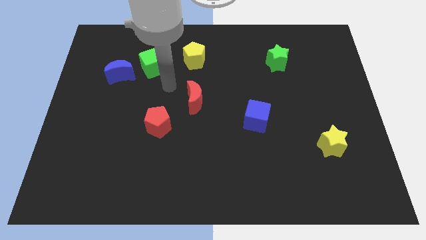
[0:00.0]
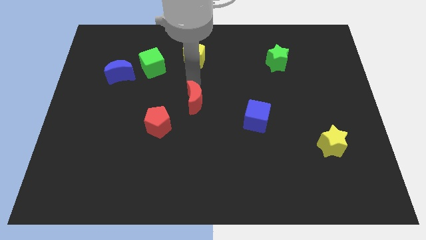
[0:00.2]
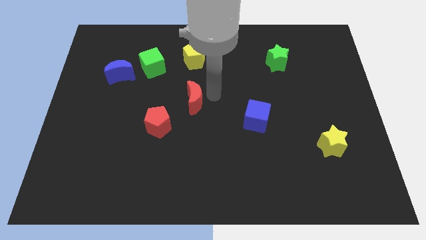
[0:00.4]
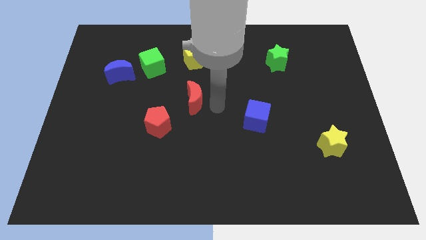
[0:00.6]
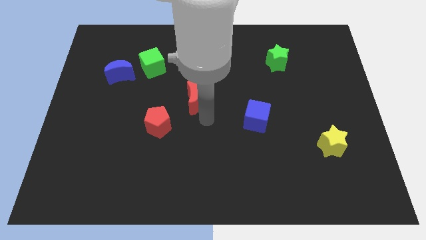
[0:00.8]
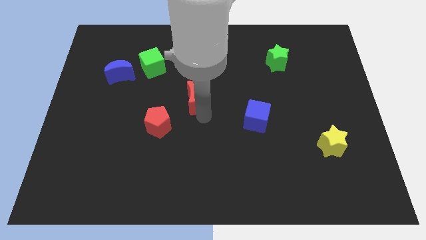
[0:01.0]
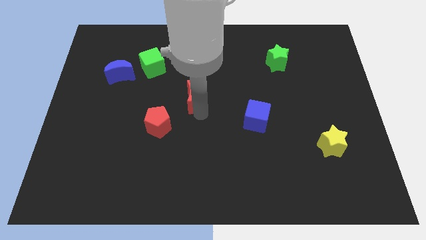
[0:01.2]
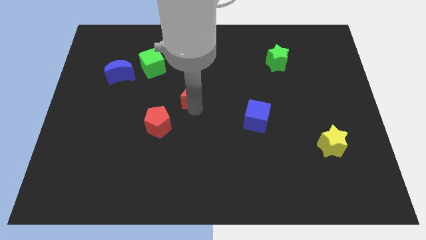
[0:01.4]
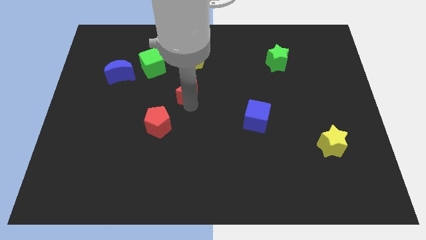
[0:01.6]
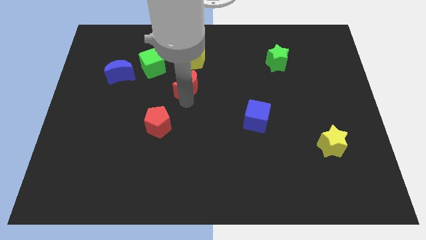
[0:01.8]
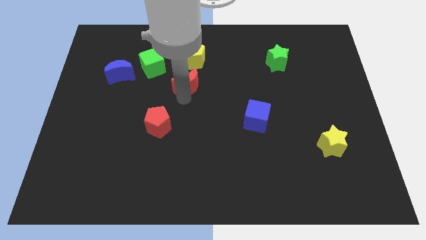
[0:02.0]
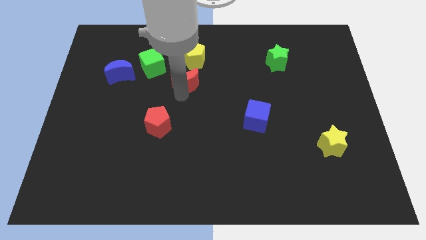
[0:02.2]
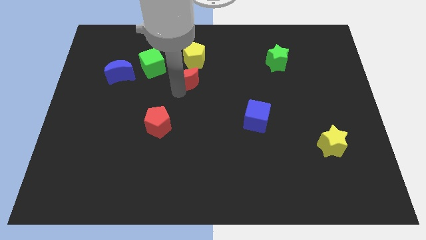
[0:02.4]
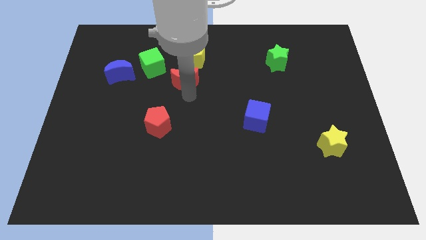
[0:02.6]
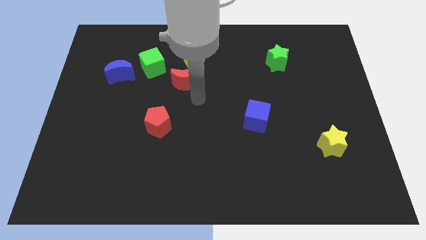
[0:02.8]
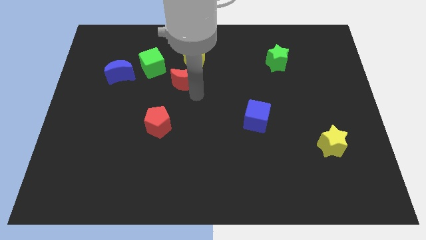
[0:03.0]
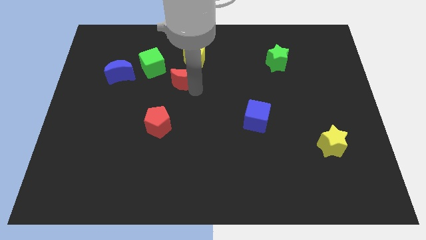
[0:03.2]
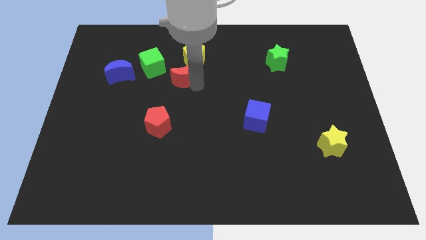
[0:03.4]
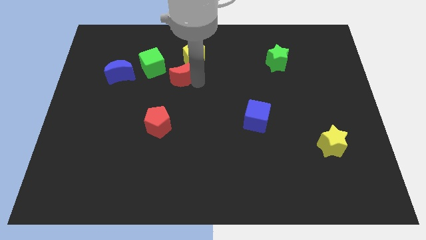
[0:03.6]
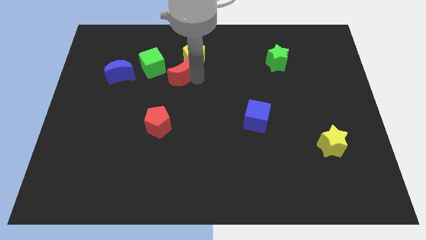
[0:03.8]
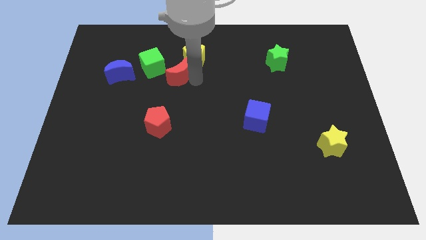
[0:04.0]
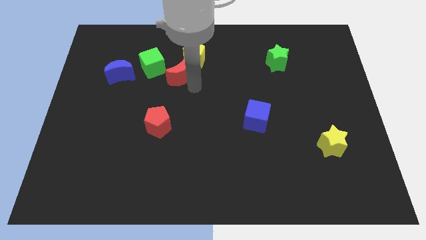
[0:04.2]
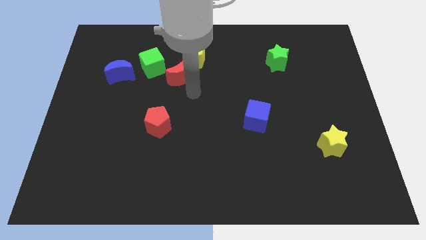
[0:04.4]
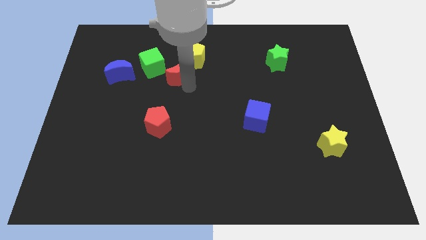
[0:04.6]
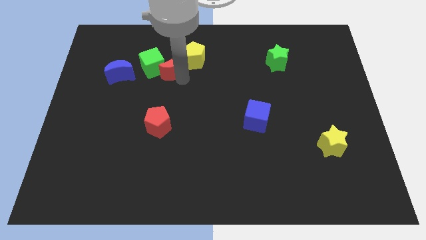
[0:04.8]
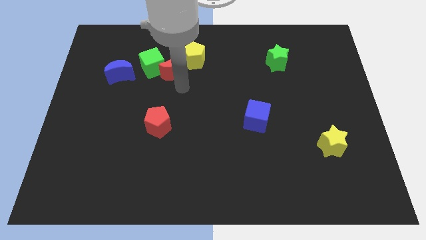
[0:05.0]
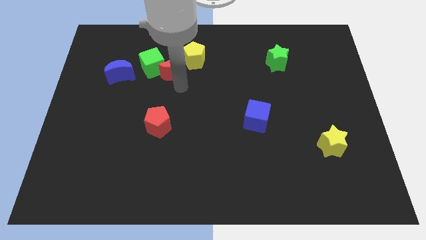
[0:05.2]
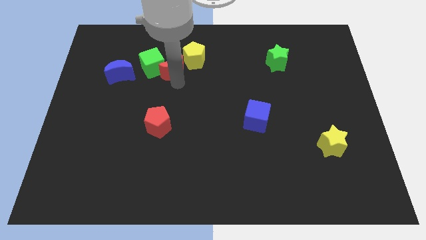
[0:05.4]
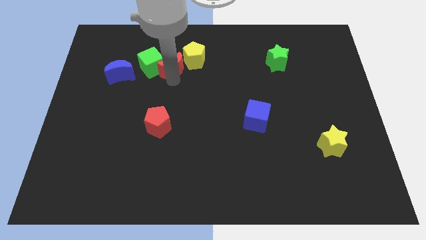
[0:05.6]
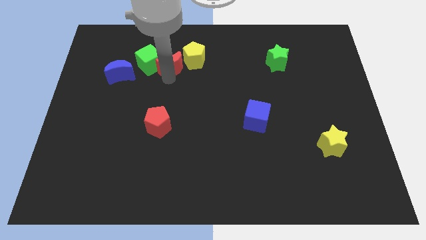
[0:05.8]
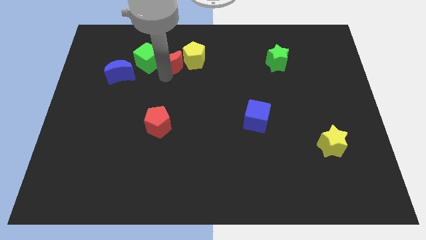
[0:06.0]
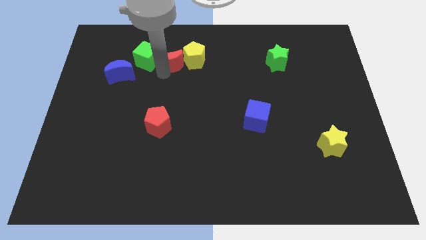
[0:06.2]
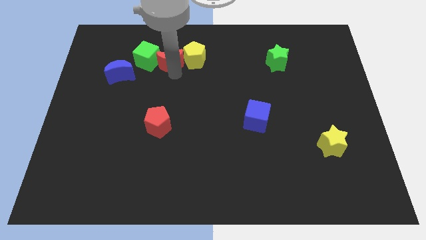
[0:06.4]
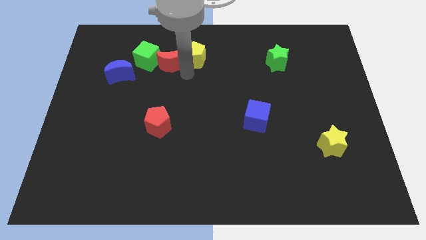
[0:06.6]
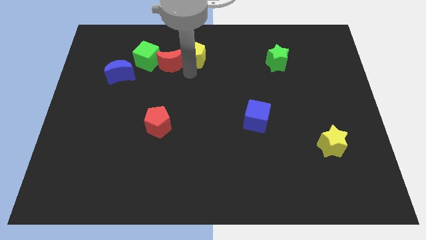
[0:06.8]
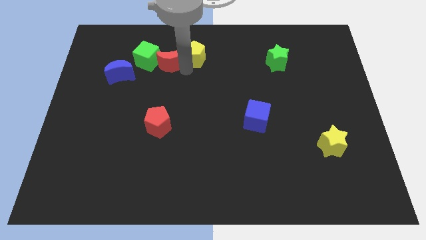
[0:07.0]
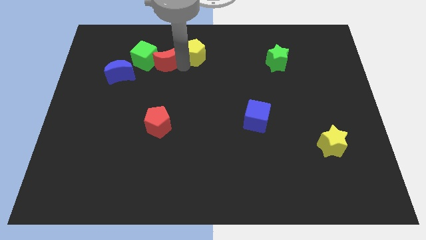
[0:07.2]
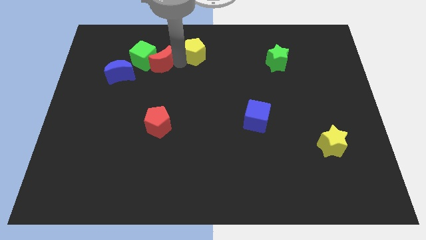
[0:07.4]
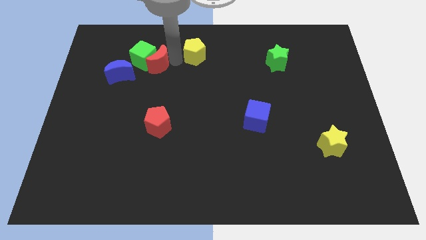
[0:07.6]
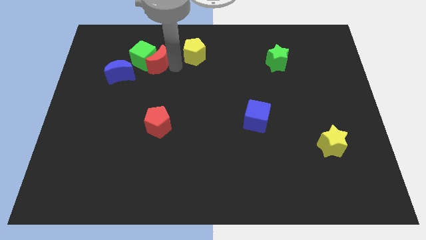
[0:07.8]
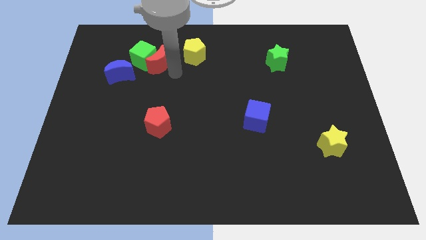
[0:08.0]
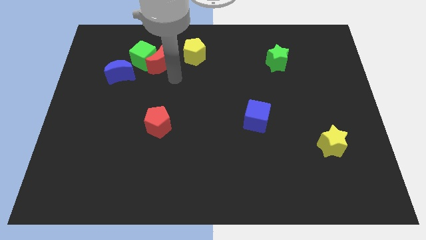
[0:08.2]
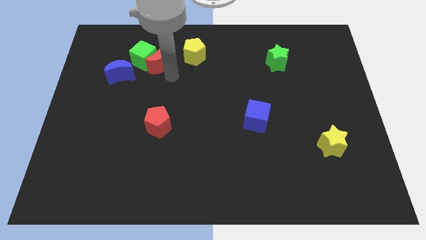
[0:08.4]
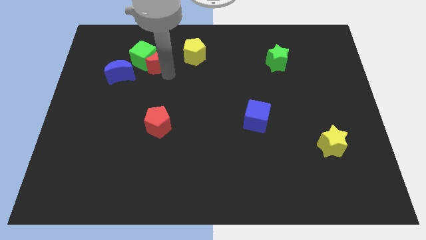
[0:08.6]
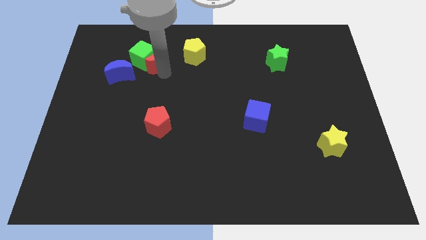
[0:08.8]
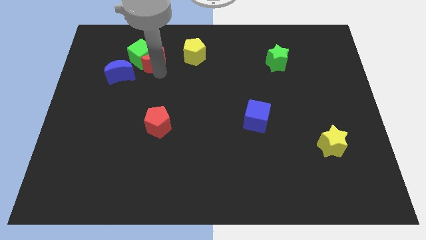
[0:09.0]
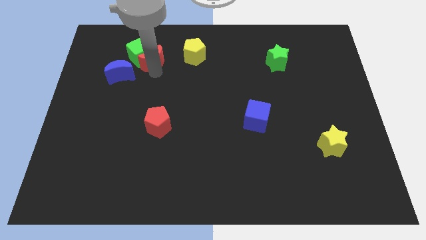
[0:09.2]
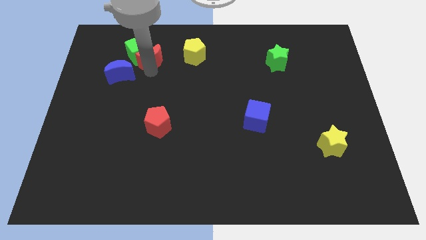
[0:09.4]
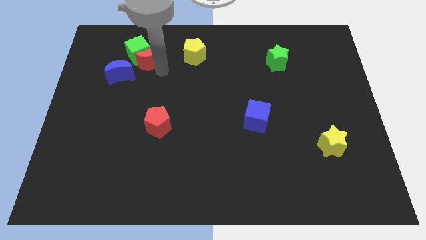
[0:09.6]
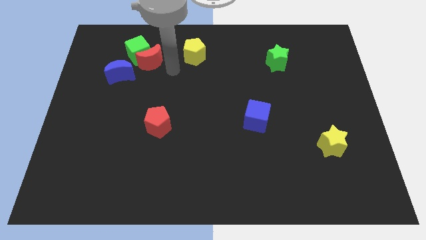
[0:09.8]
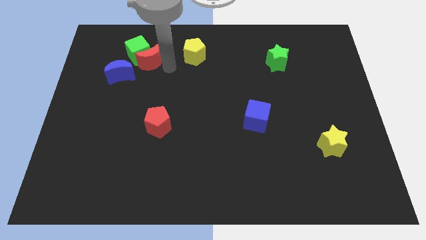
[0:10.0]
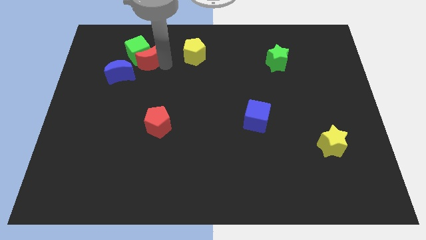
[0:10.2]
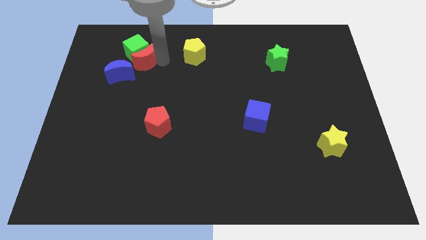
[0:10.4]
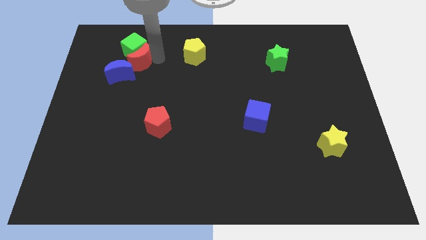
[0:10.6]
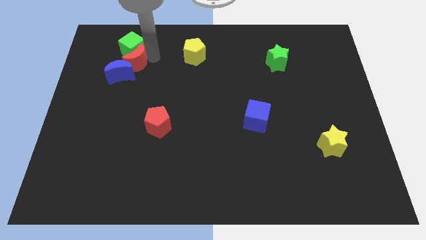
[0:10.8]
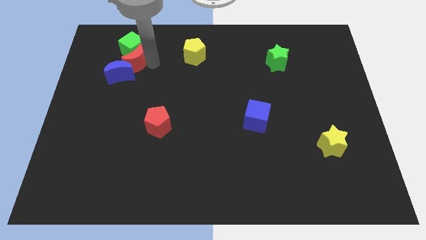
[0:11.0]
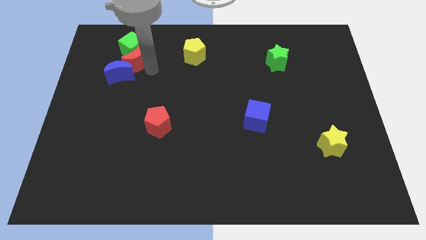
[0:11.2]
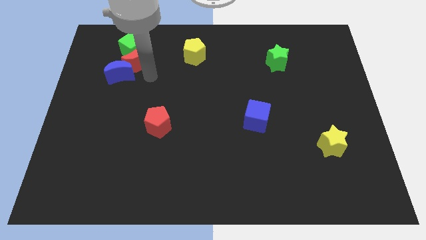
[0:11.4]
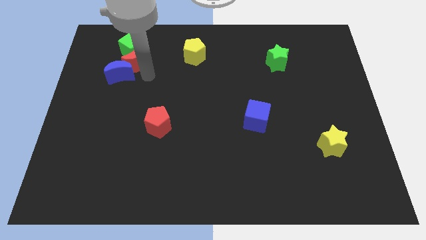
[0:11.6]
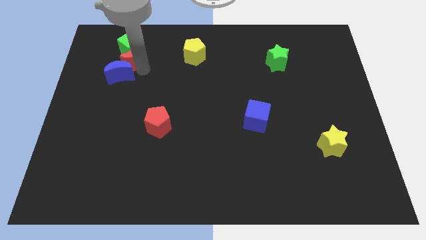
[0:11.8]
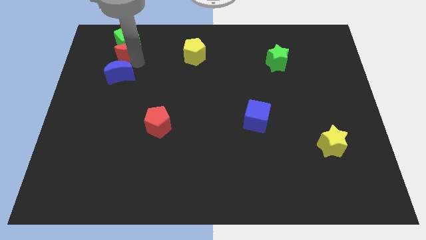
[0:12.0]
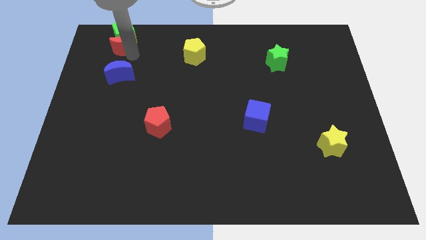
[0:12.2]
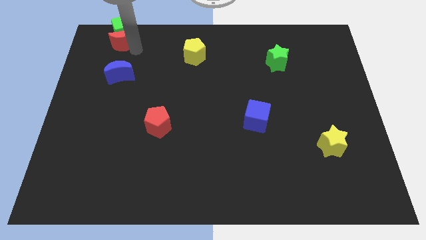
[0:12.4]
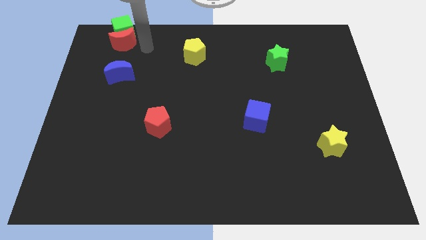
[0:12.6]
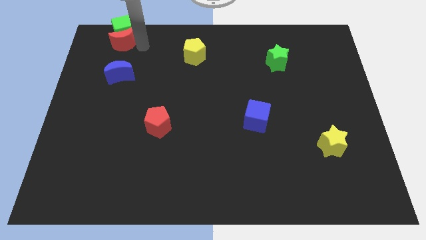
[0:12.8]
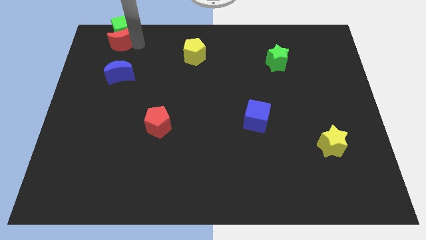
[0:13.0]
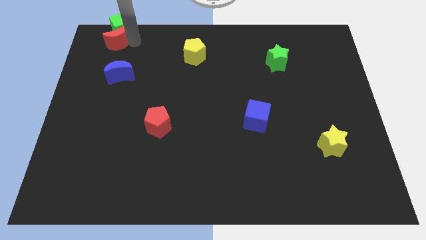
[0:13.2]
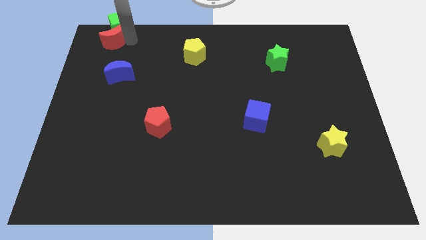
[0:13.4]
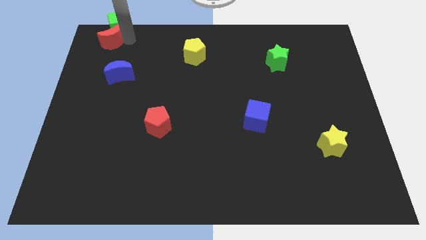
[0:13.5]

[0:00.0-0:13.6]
push the red moon to the top left of the board
